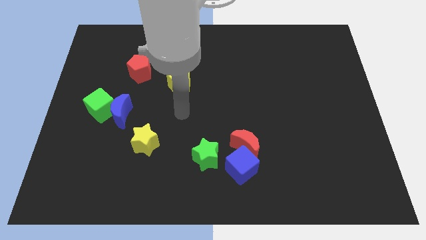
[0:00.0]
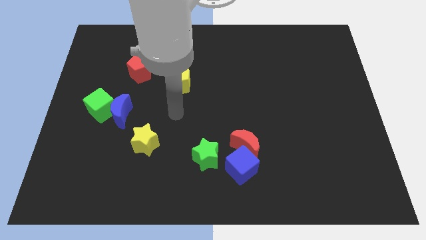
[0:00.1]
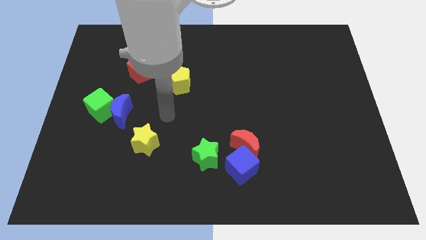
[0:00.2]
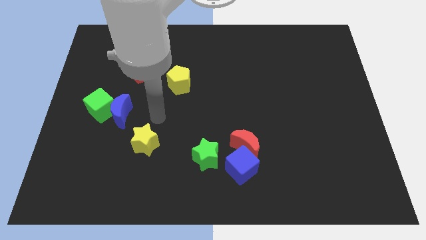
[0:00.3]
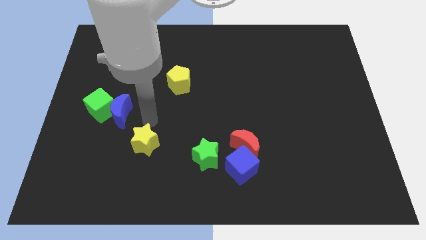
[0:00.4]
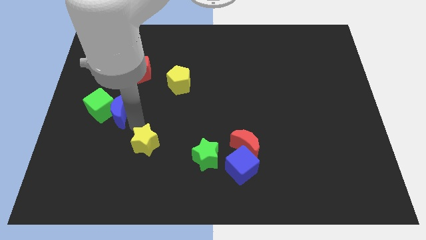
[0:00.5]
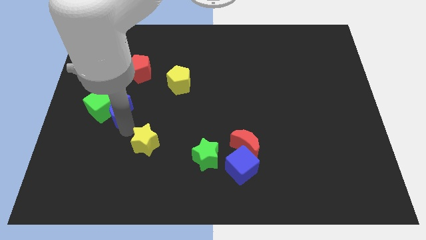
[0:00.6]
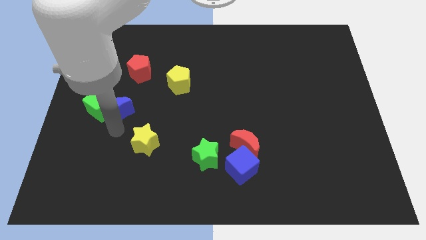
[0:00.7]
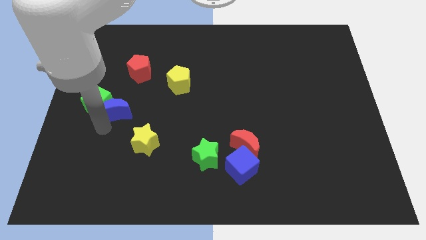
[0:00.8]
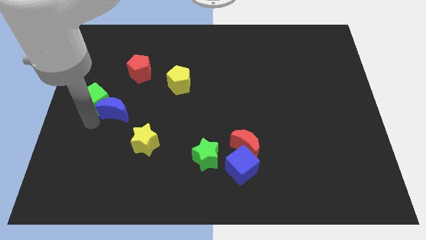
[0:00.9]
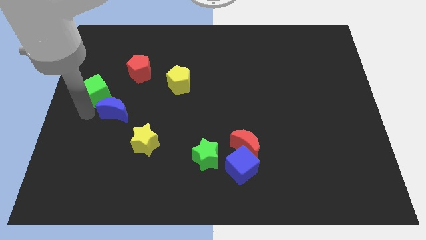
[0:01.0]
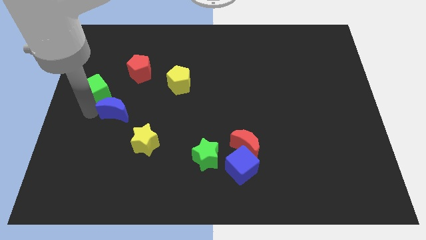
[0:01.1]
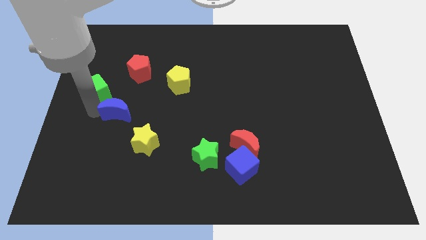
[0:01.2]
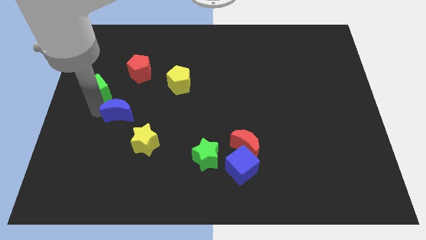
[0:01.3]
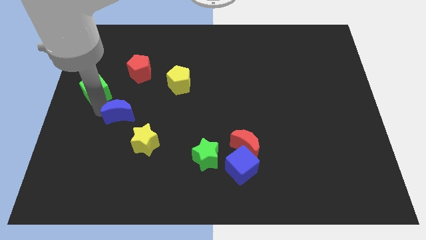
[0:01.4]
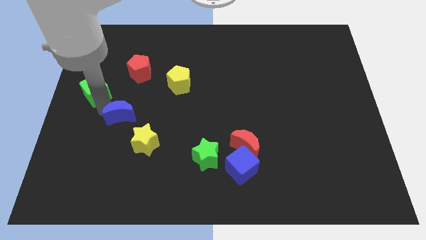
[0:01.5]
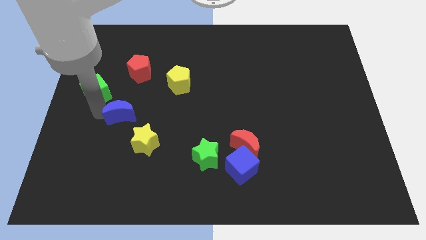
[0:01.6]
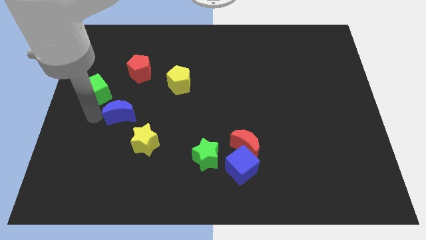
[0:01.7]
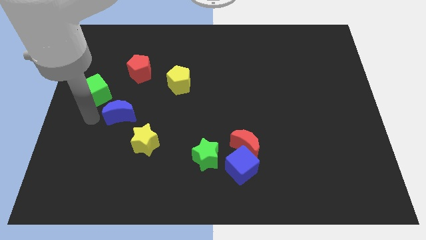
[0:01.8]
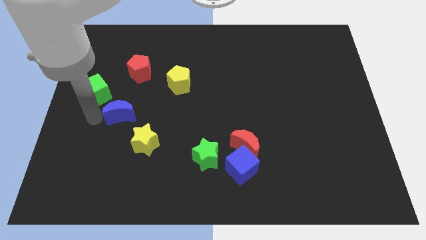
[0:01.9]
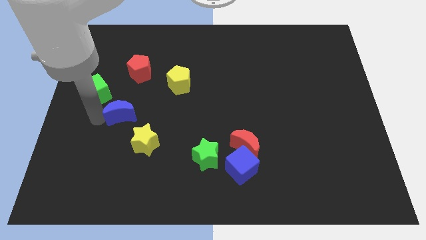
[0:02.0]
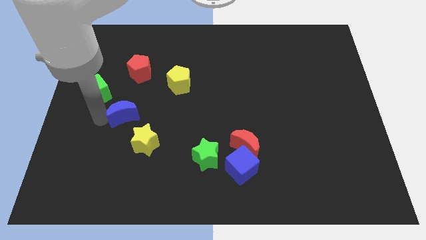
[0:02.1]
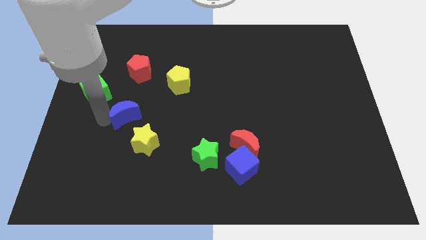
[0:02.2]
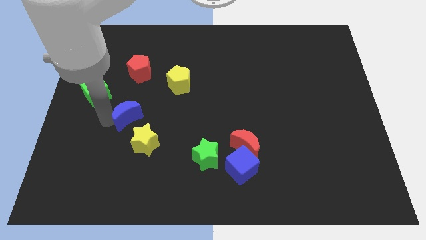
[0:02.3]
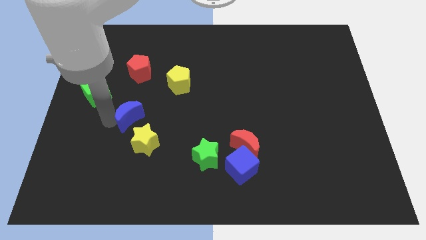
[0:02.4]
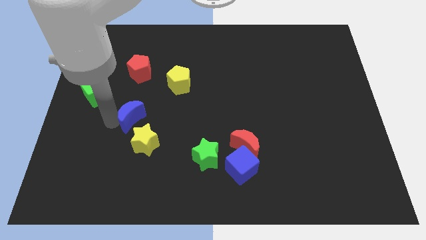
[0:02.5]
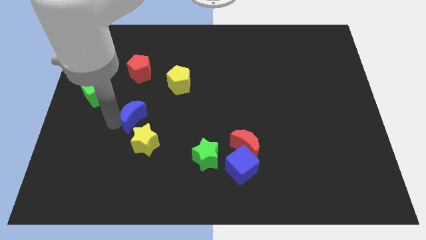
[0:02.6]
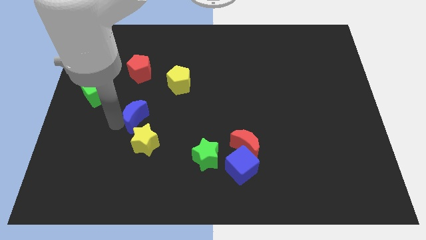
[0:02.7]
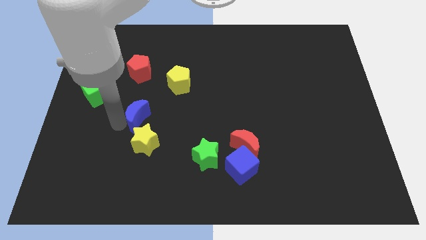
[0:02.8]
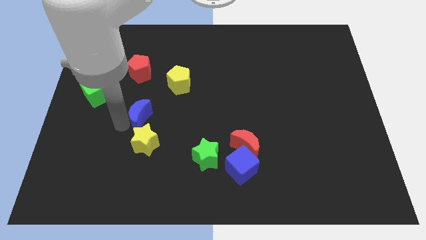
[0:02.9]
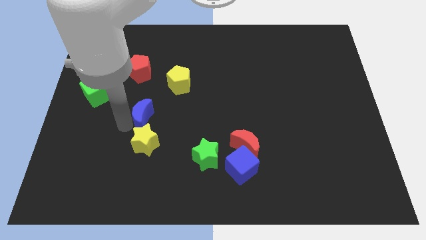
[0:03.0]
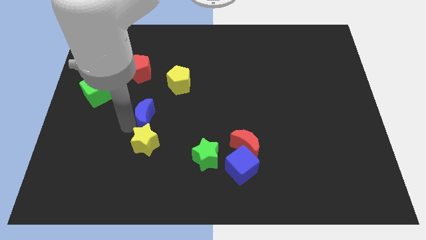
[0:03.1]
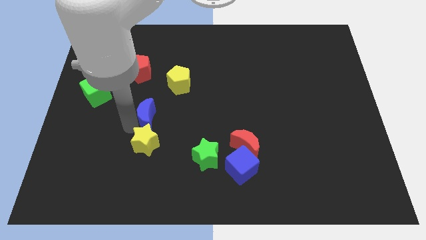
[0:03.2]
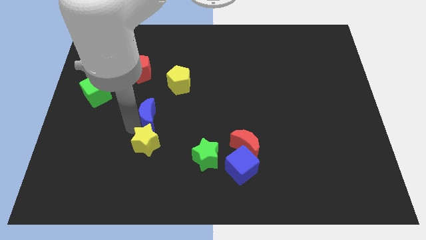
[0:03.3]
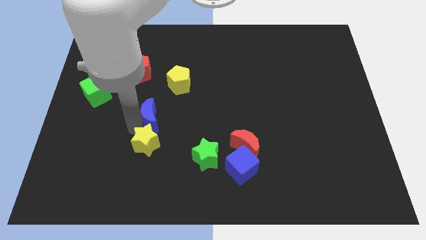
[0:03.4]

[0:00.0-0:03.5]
push the blue moon right a bit

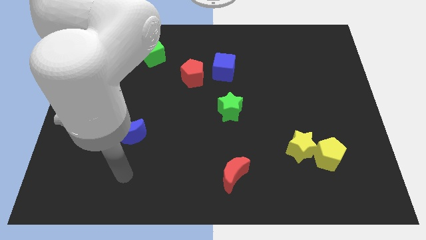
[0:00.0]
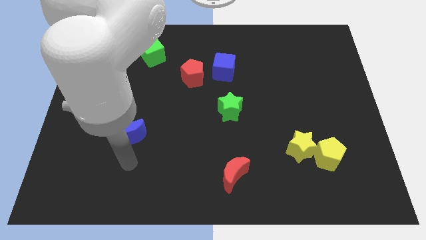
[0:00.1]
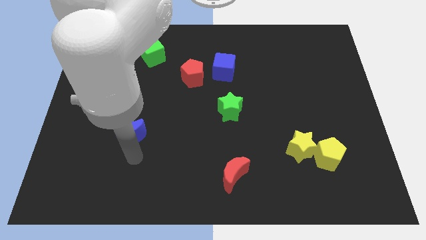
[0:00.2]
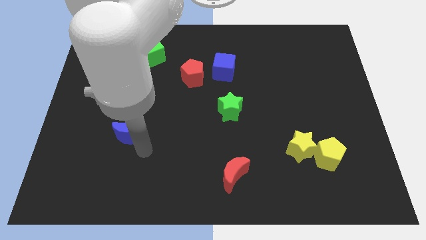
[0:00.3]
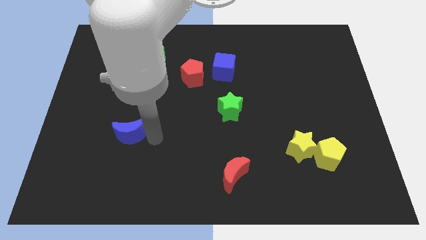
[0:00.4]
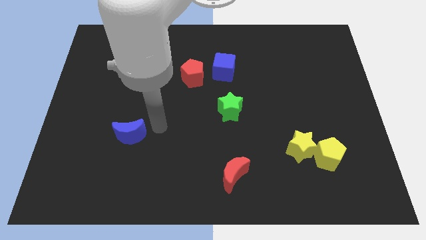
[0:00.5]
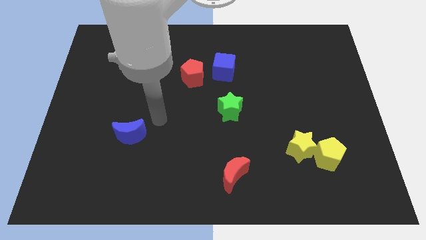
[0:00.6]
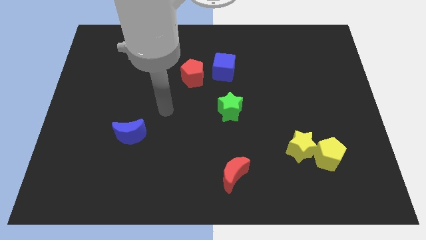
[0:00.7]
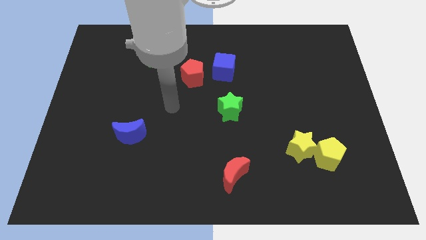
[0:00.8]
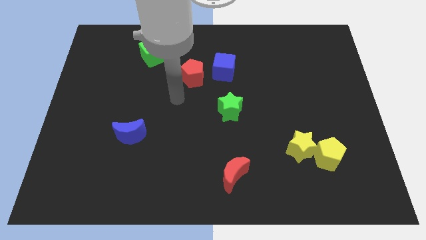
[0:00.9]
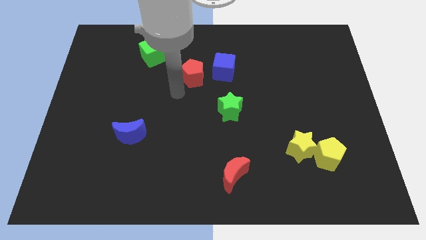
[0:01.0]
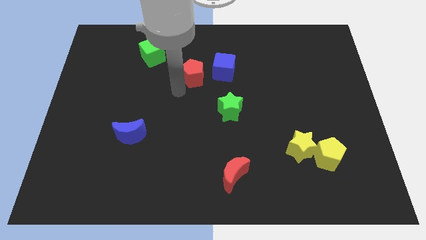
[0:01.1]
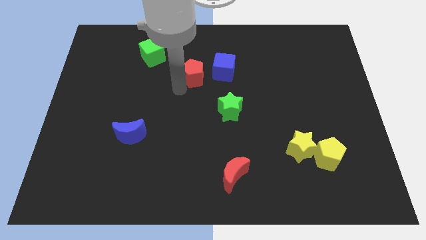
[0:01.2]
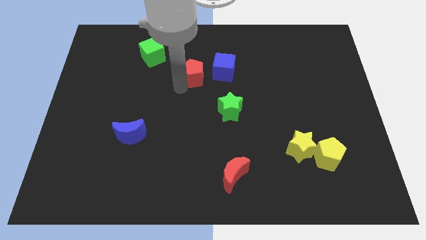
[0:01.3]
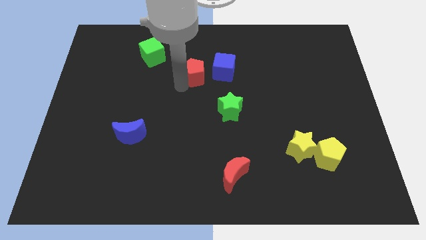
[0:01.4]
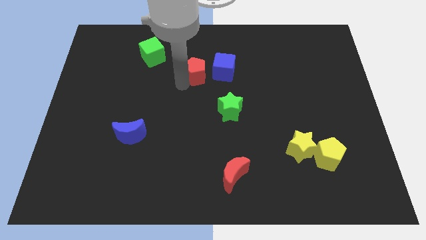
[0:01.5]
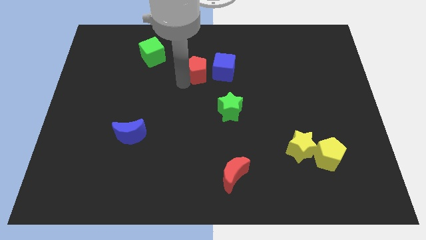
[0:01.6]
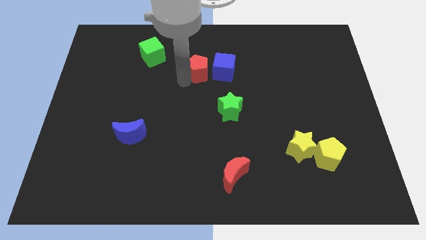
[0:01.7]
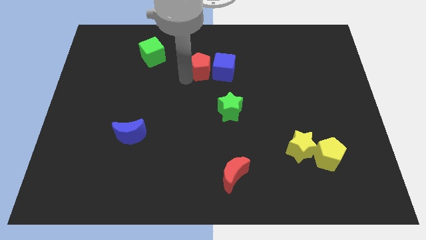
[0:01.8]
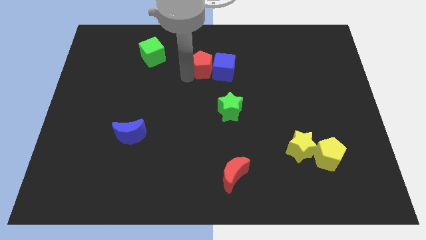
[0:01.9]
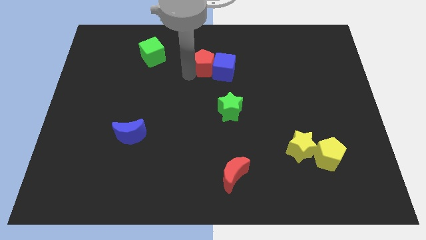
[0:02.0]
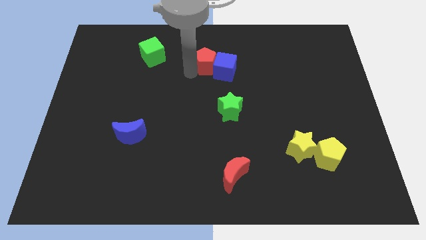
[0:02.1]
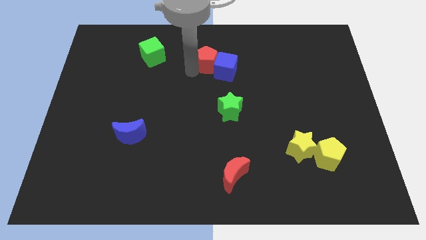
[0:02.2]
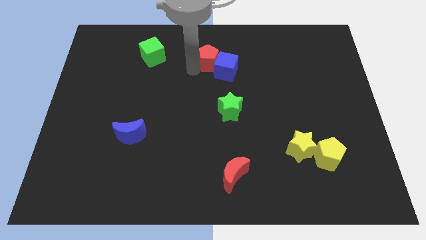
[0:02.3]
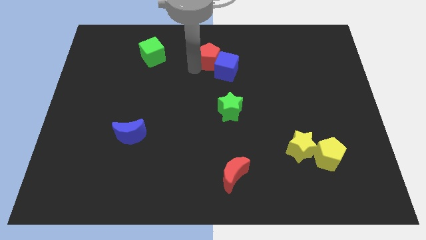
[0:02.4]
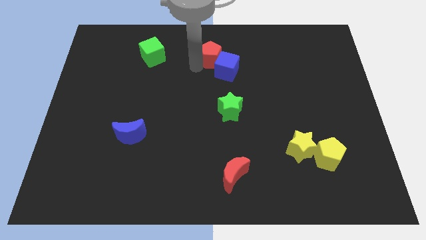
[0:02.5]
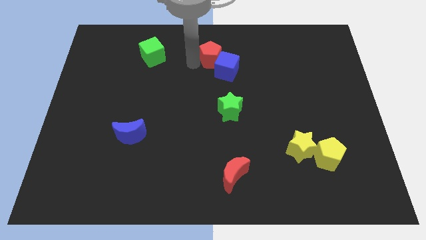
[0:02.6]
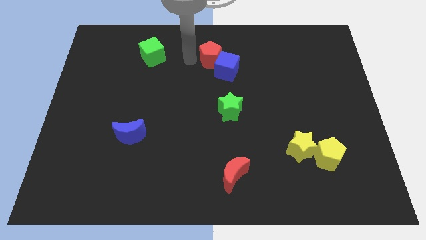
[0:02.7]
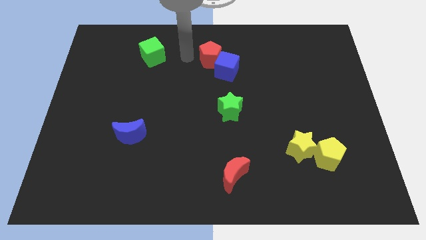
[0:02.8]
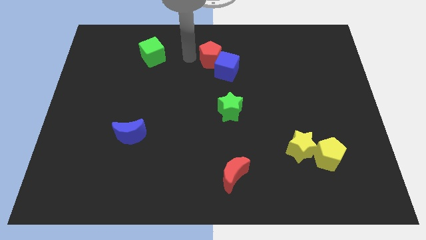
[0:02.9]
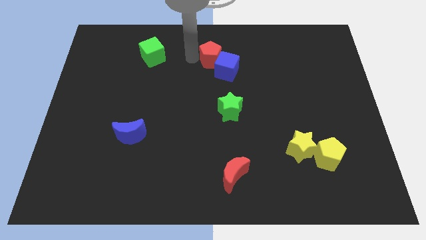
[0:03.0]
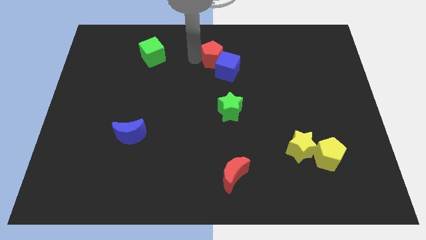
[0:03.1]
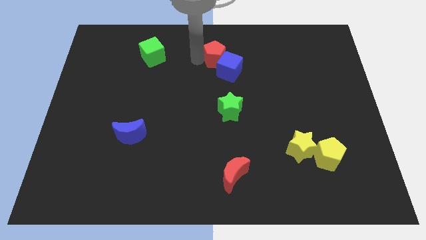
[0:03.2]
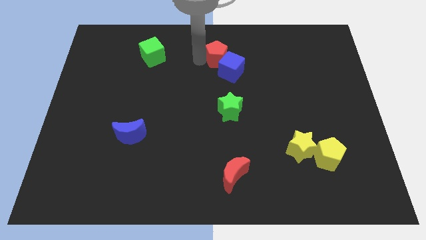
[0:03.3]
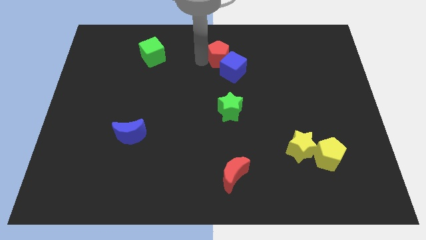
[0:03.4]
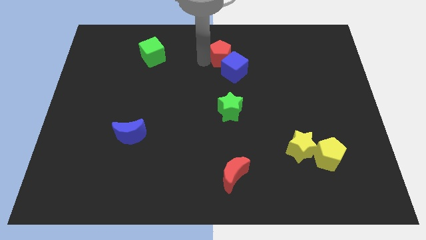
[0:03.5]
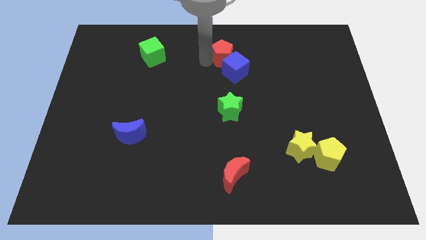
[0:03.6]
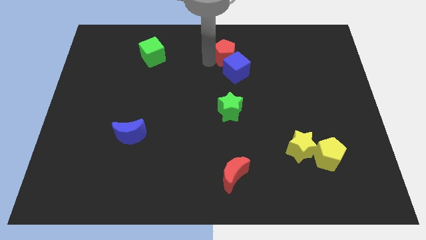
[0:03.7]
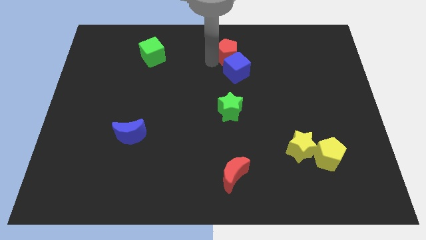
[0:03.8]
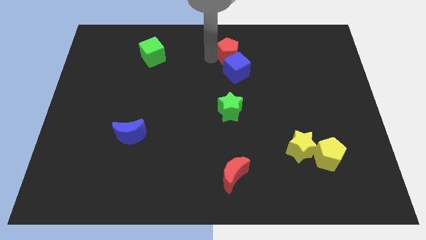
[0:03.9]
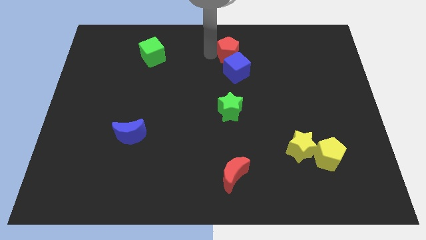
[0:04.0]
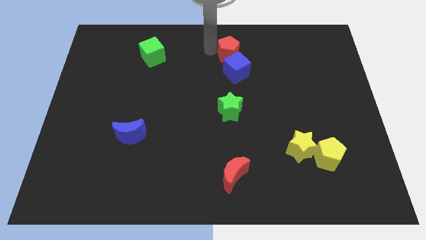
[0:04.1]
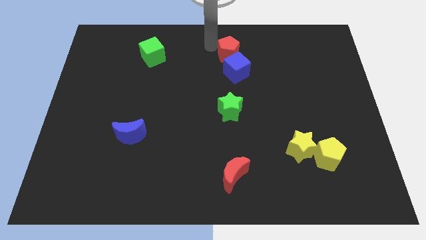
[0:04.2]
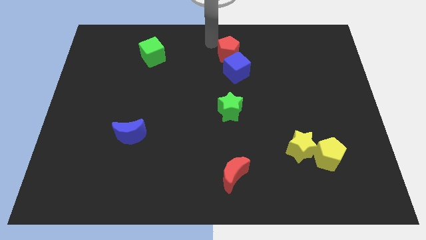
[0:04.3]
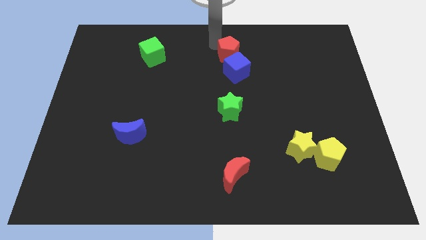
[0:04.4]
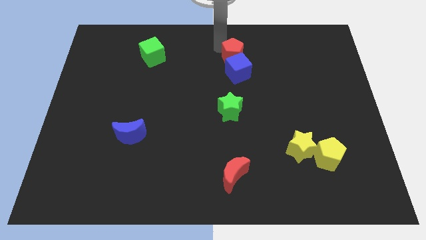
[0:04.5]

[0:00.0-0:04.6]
move the red pentagon somewhat to the right
